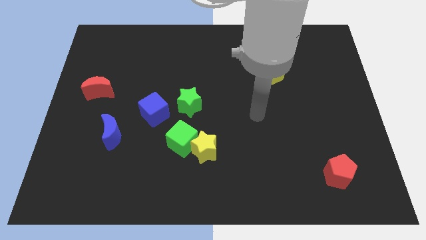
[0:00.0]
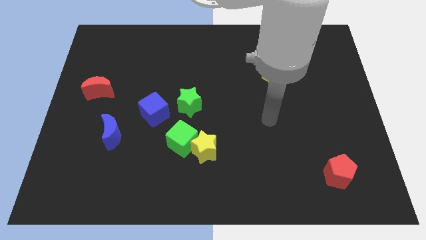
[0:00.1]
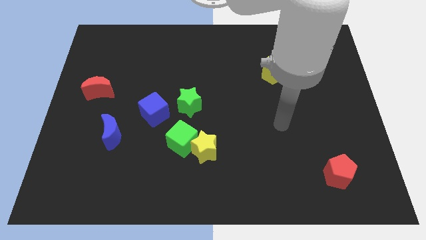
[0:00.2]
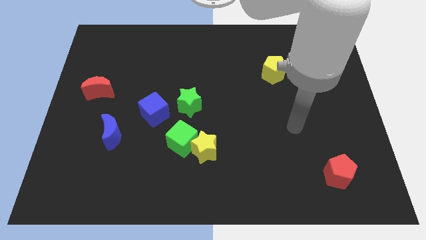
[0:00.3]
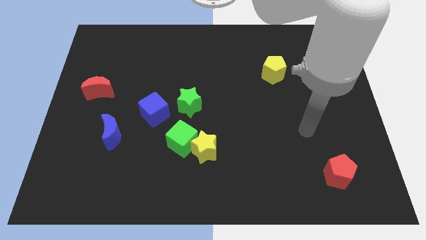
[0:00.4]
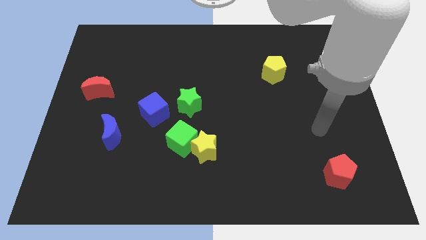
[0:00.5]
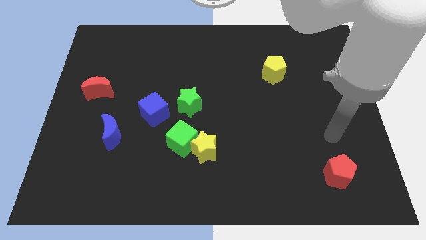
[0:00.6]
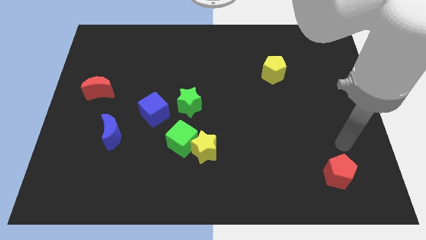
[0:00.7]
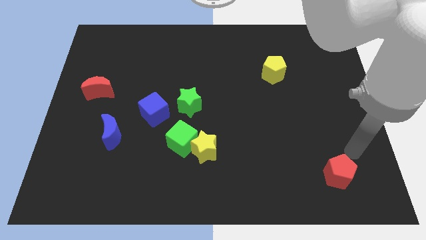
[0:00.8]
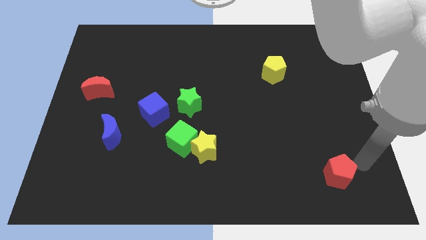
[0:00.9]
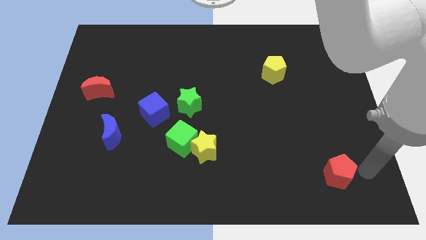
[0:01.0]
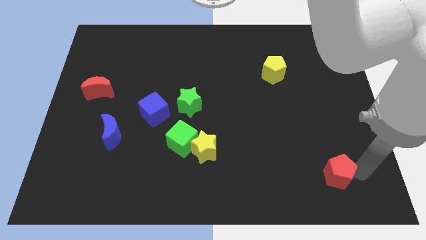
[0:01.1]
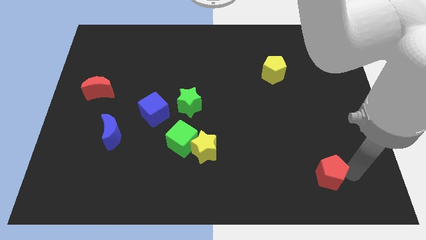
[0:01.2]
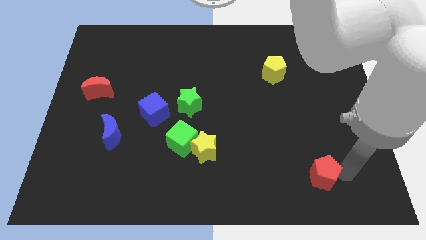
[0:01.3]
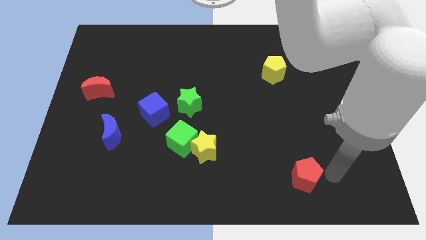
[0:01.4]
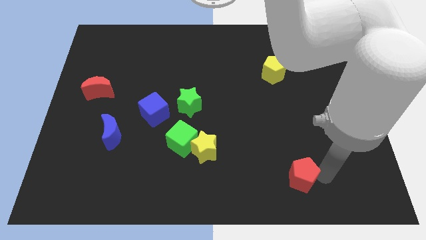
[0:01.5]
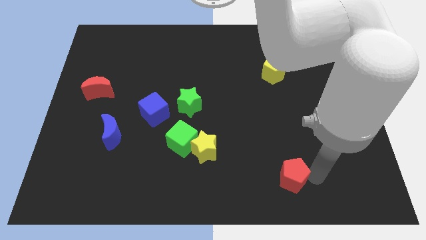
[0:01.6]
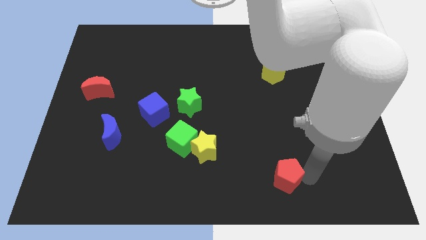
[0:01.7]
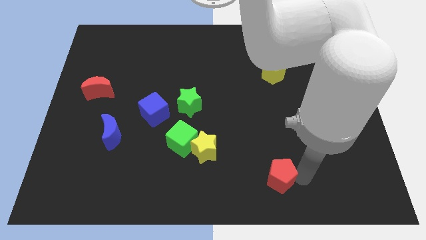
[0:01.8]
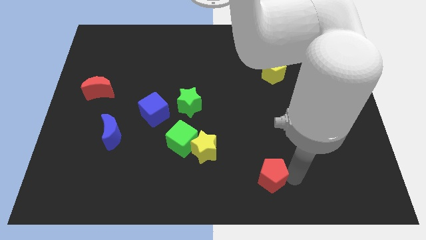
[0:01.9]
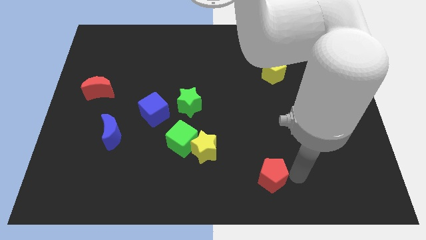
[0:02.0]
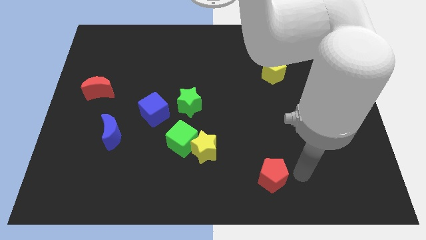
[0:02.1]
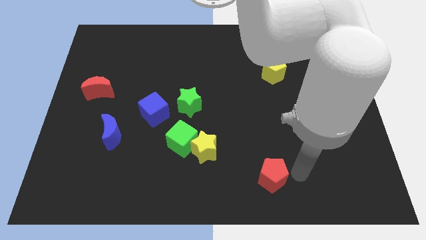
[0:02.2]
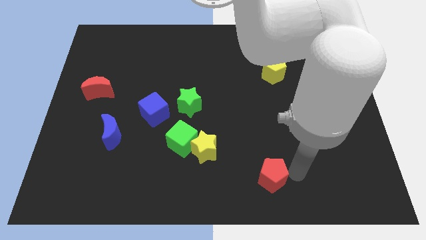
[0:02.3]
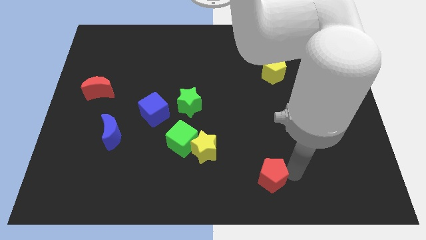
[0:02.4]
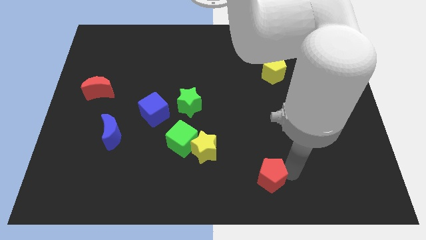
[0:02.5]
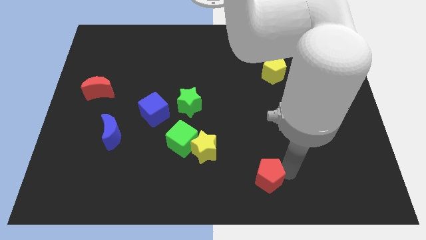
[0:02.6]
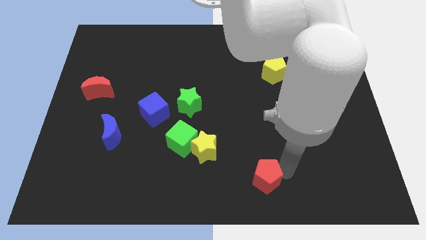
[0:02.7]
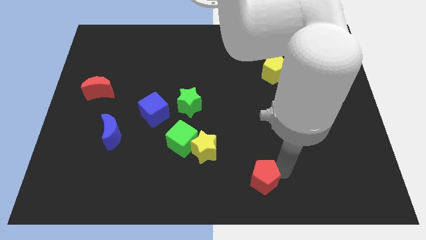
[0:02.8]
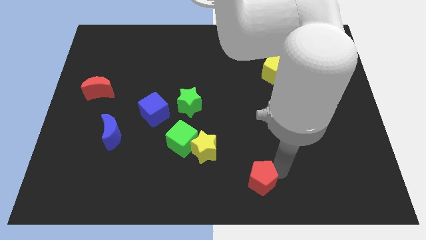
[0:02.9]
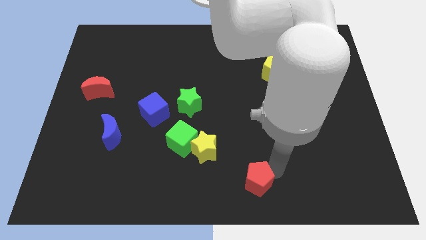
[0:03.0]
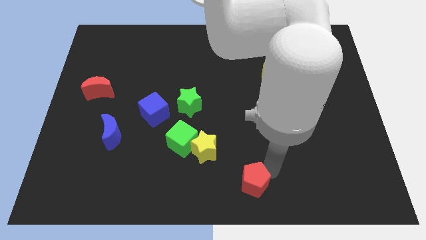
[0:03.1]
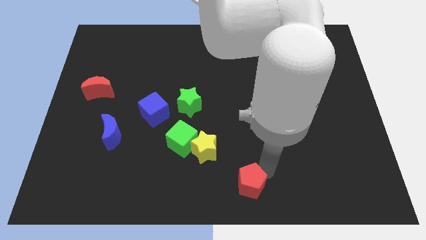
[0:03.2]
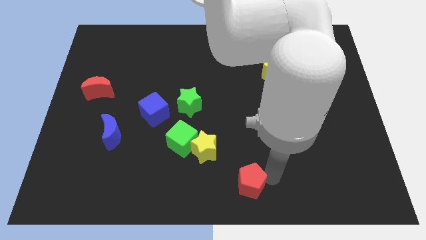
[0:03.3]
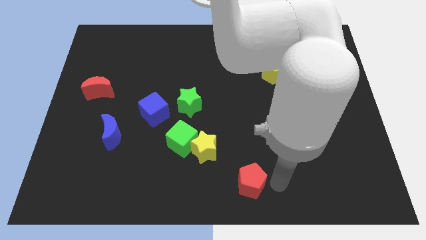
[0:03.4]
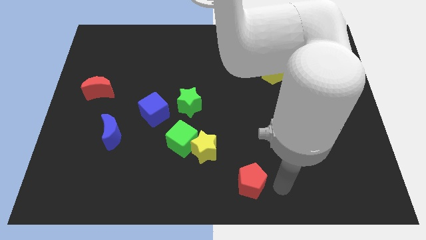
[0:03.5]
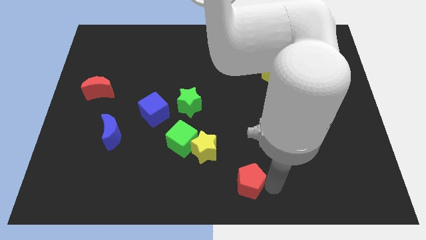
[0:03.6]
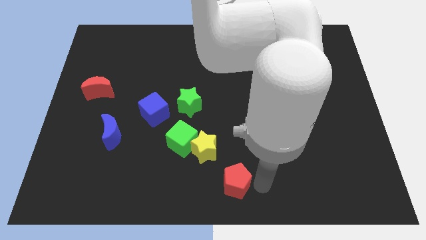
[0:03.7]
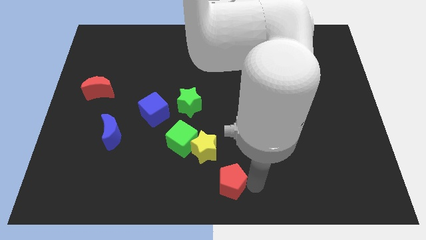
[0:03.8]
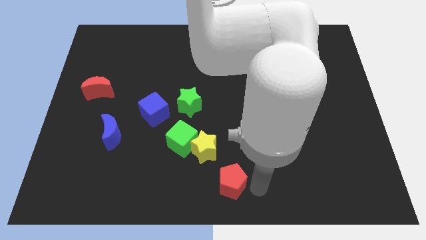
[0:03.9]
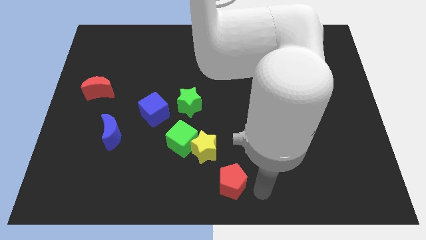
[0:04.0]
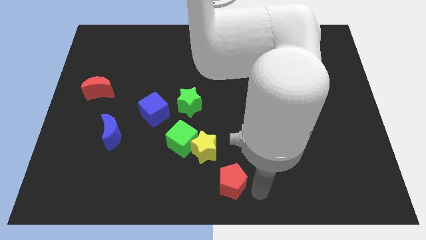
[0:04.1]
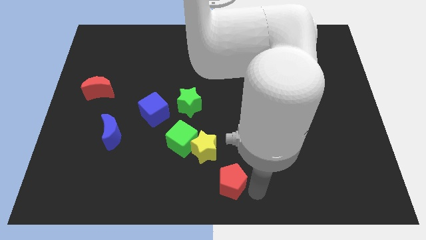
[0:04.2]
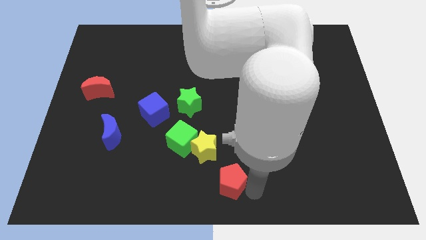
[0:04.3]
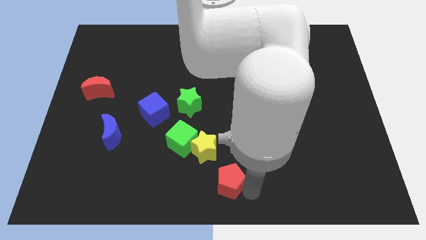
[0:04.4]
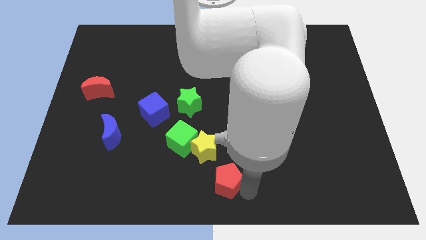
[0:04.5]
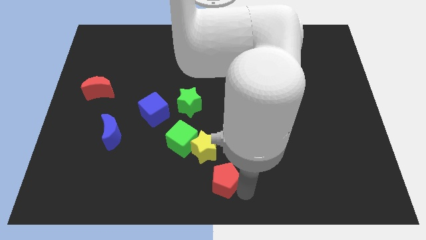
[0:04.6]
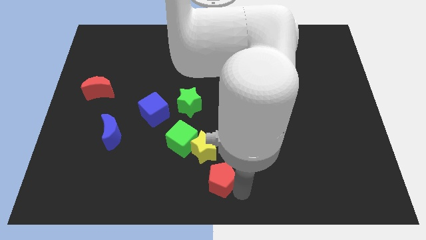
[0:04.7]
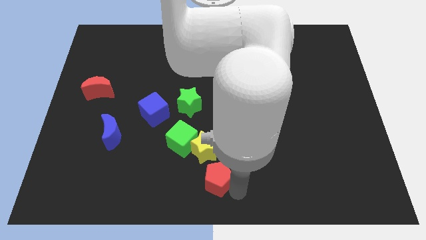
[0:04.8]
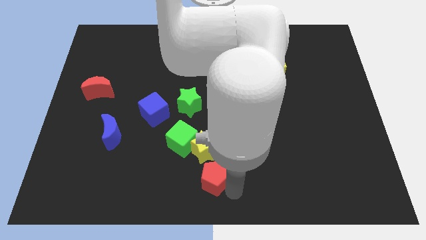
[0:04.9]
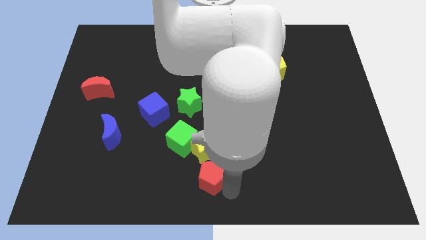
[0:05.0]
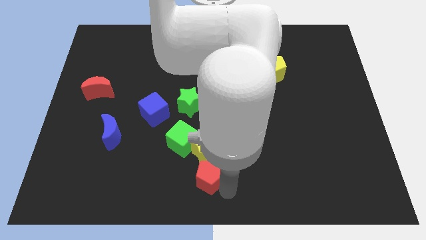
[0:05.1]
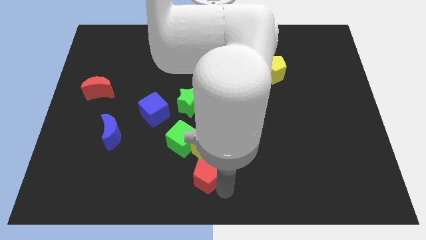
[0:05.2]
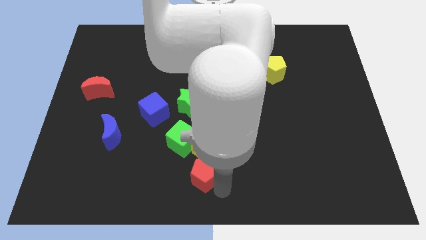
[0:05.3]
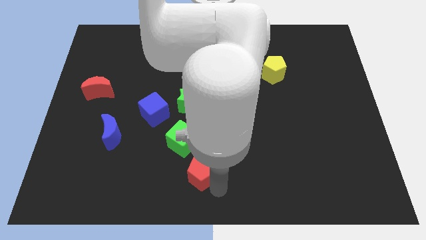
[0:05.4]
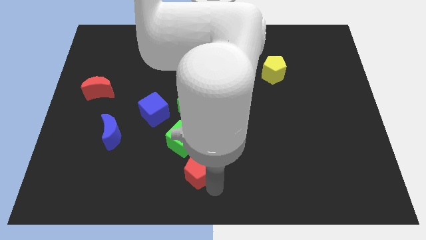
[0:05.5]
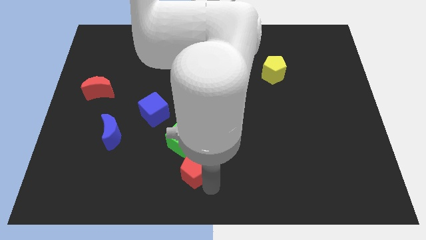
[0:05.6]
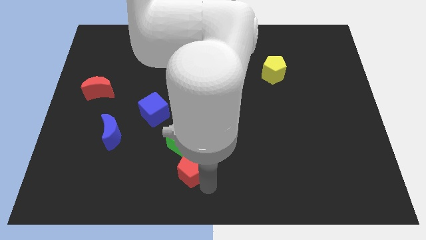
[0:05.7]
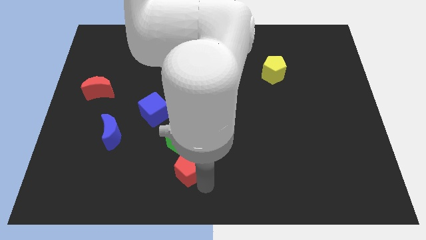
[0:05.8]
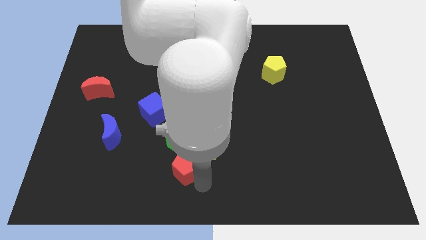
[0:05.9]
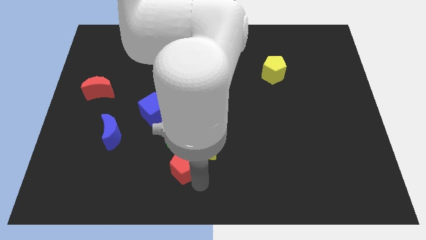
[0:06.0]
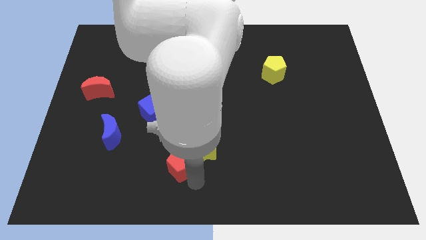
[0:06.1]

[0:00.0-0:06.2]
move the red pentagon close to the green cube
